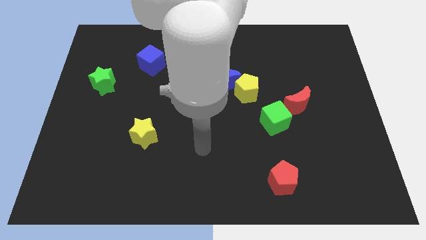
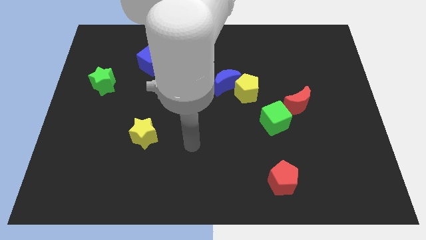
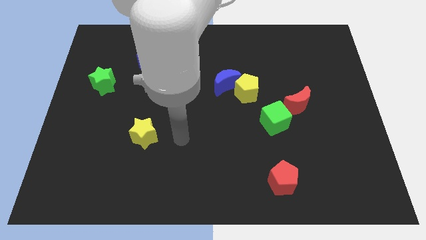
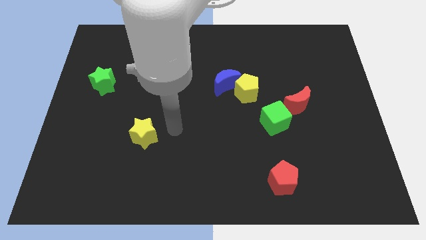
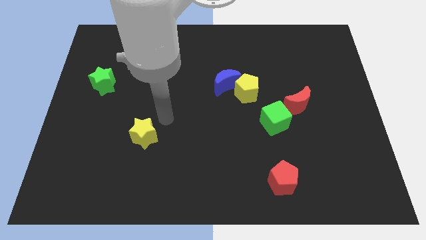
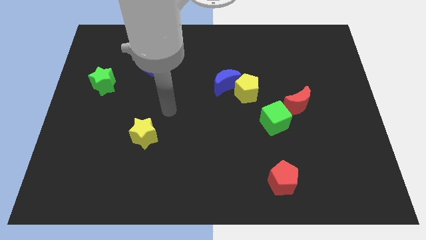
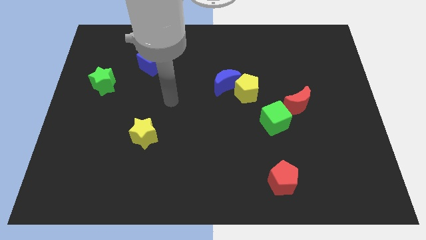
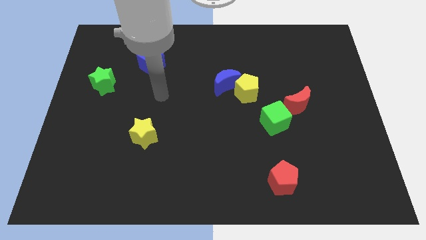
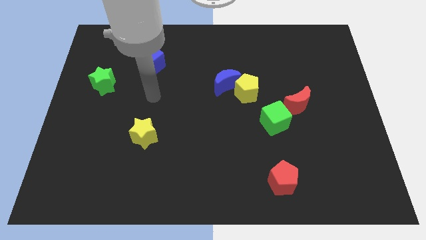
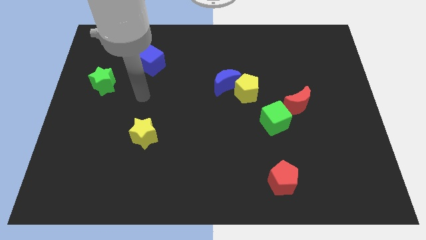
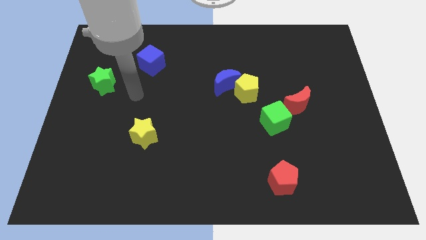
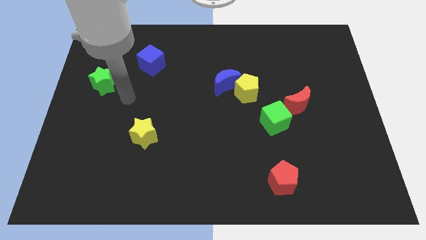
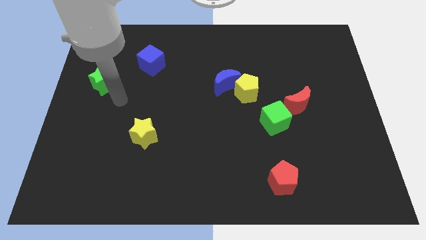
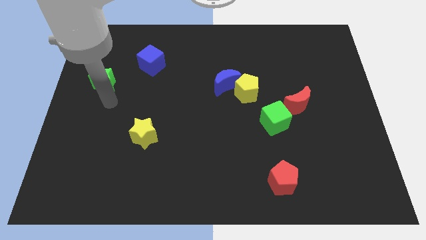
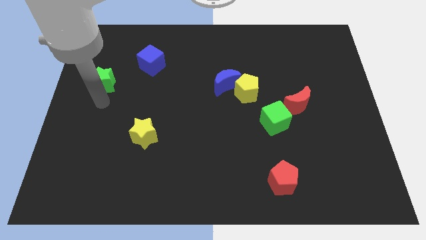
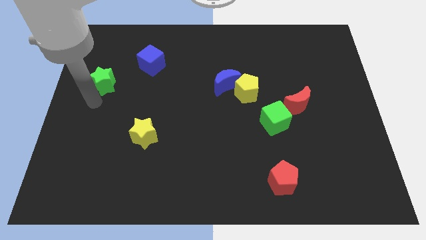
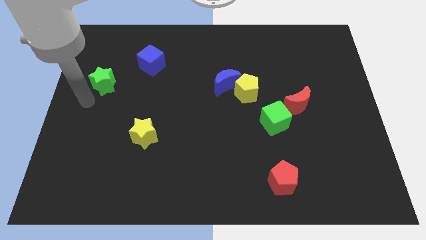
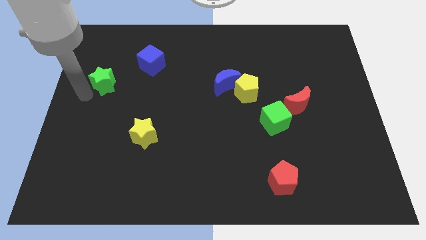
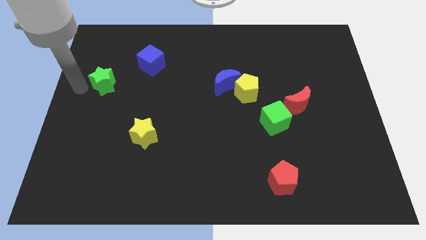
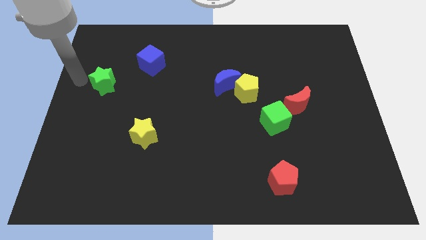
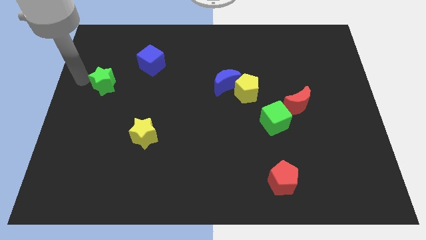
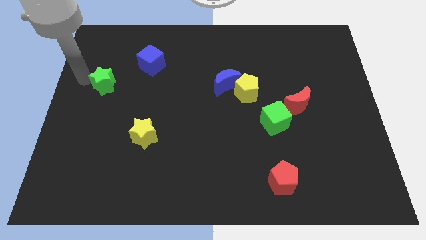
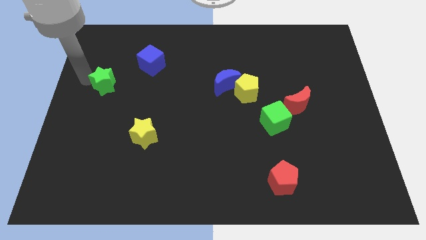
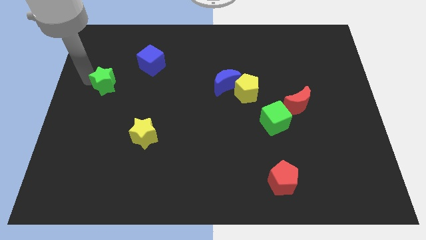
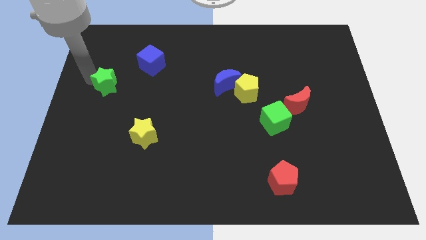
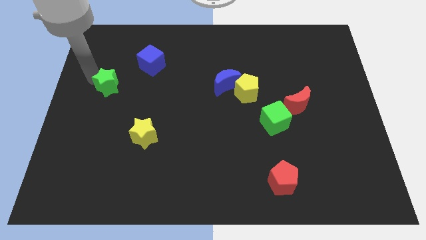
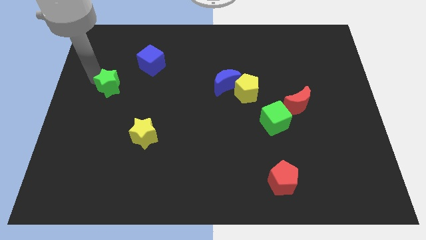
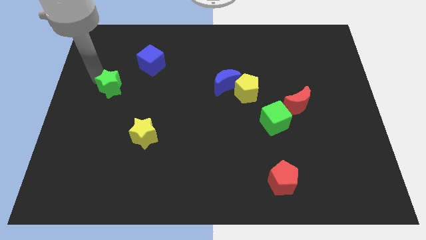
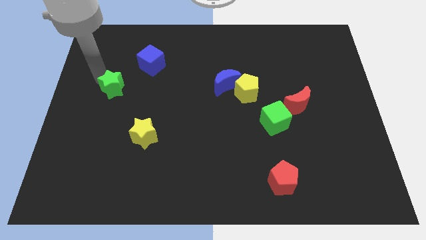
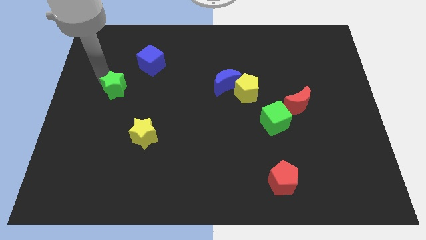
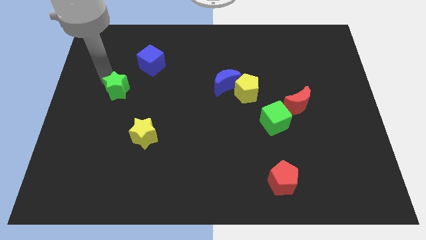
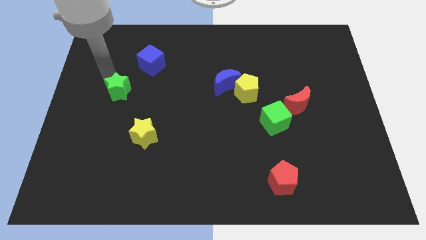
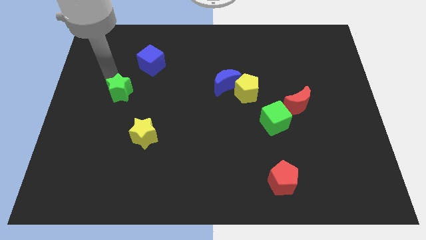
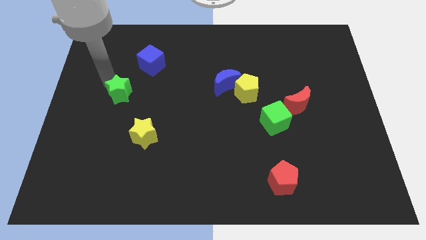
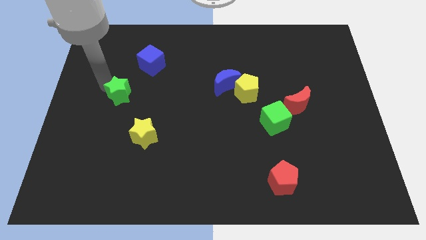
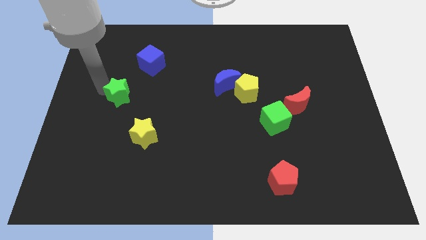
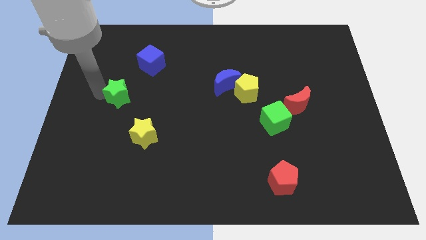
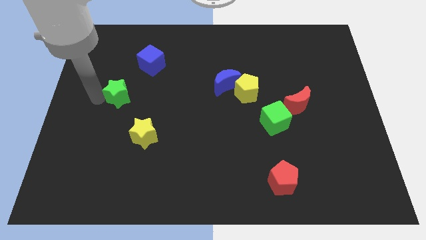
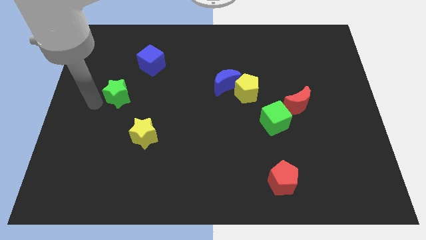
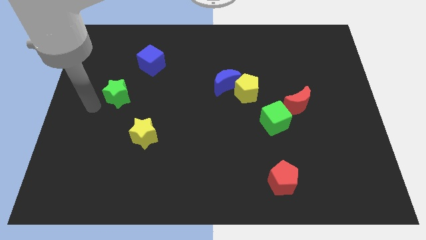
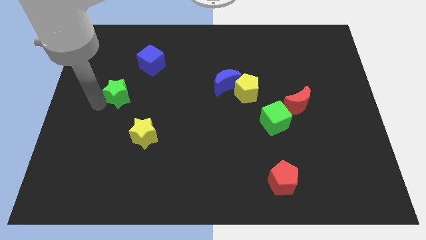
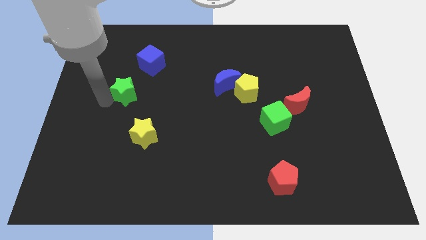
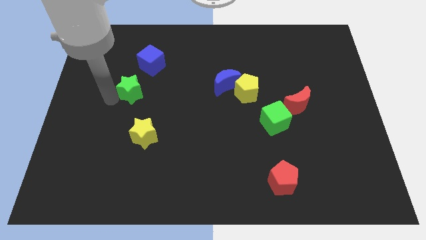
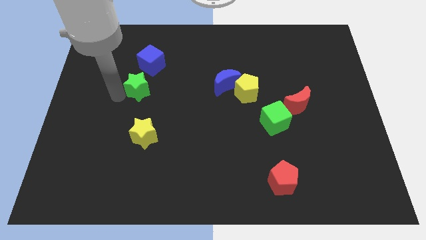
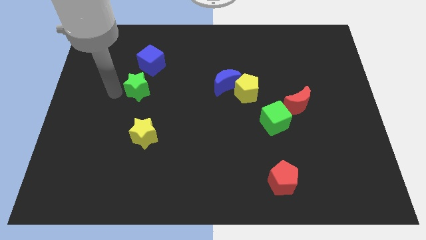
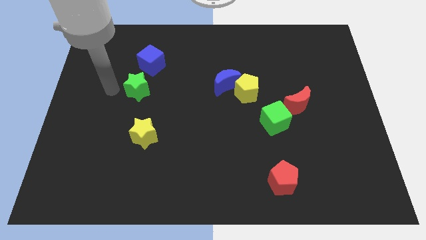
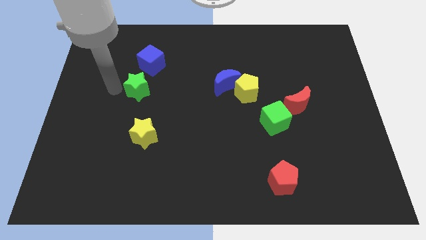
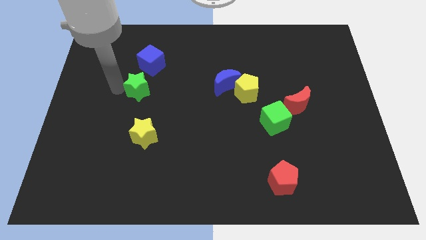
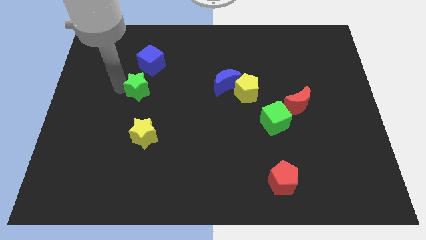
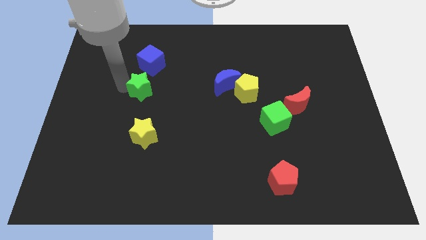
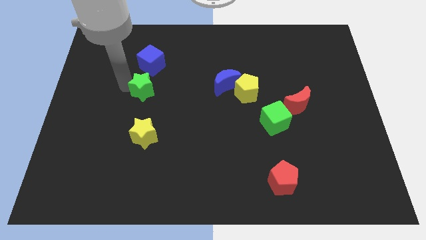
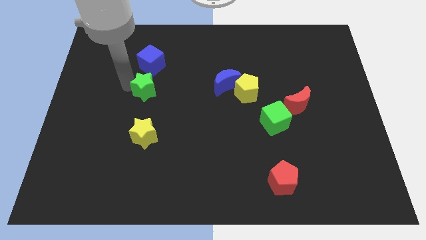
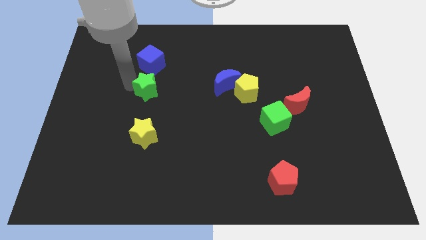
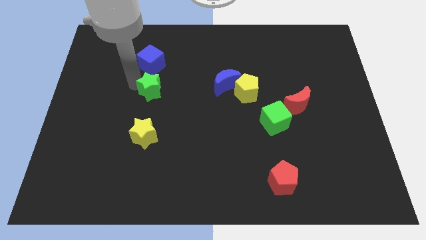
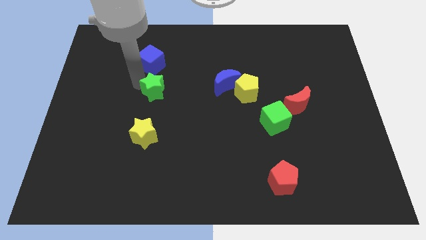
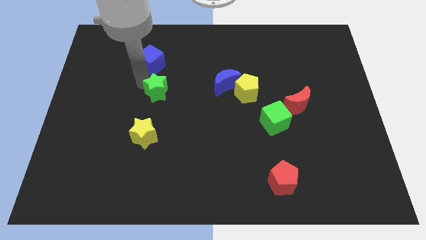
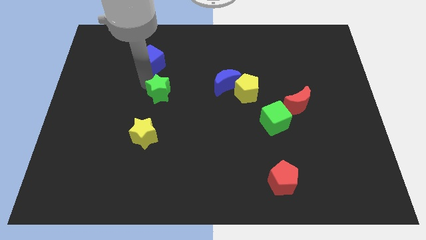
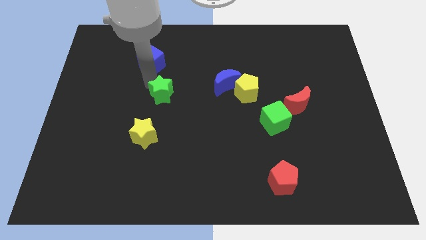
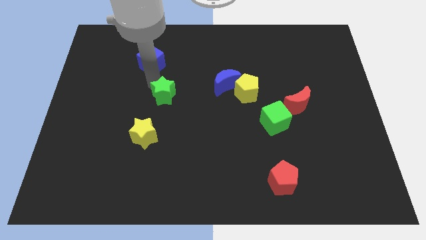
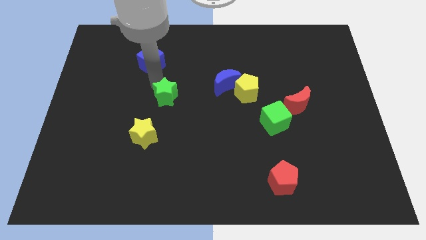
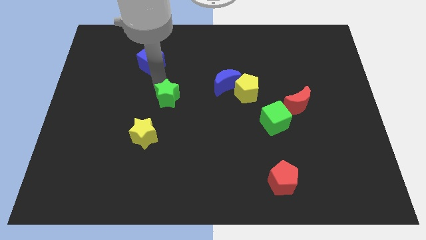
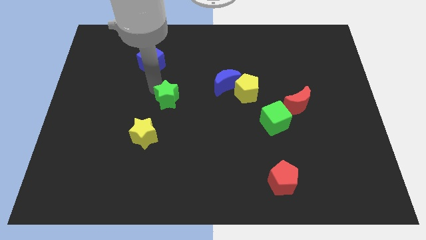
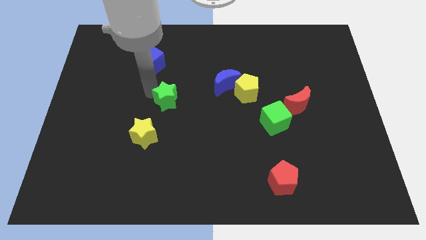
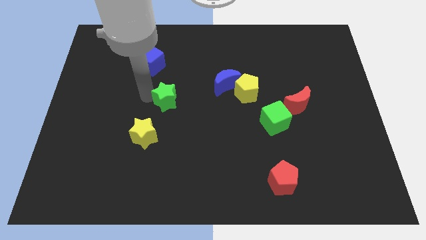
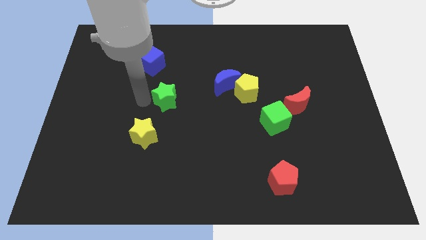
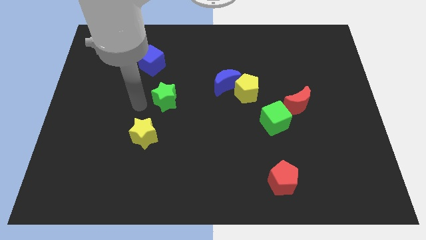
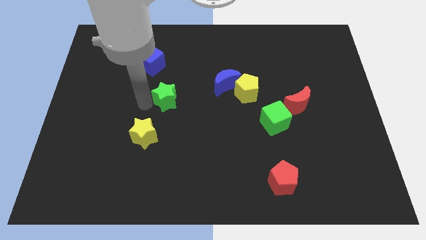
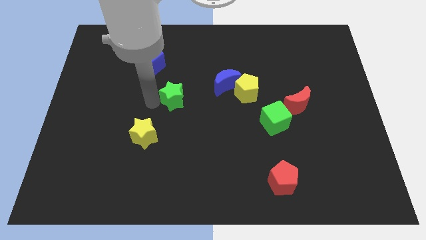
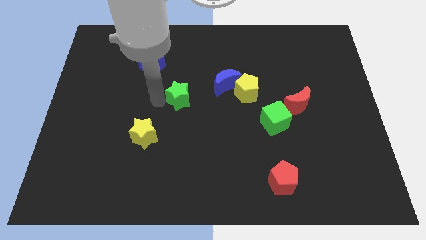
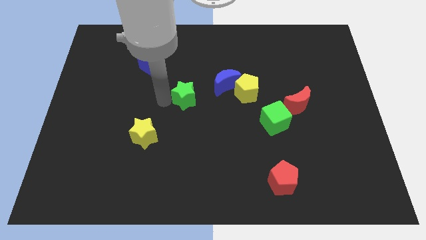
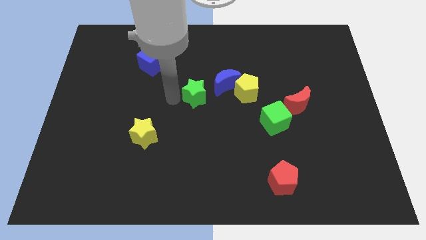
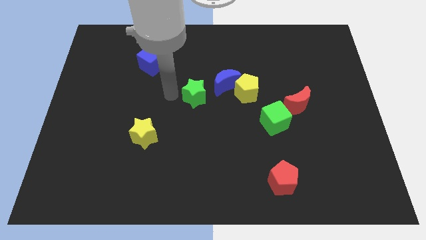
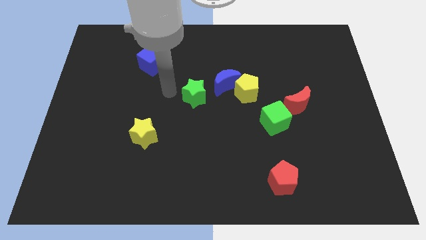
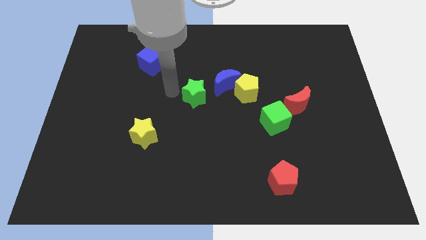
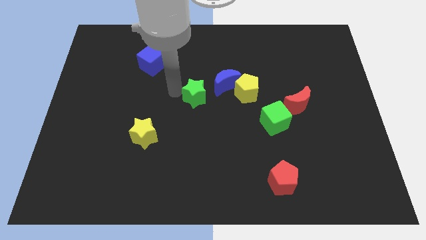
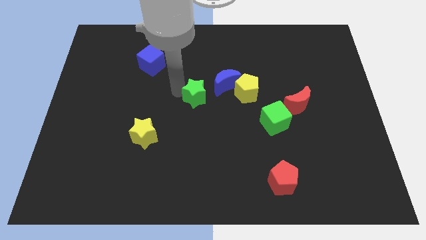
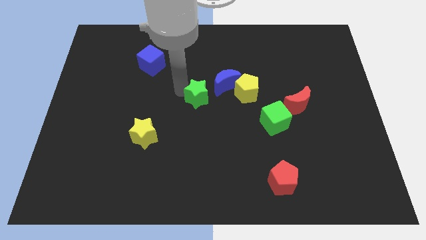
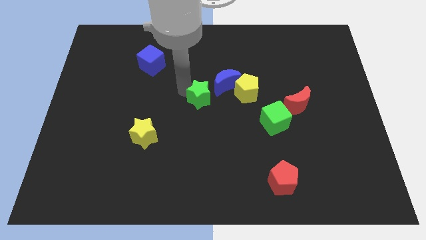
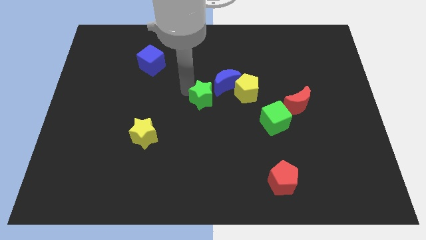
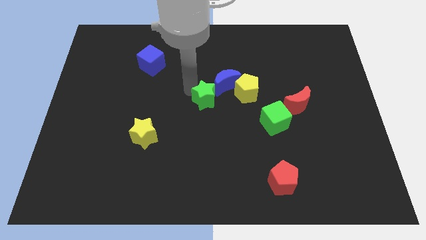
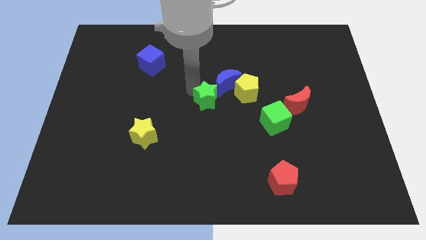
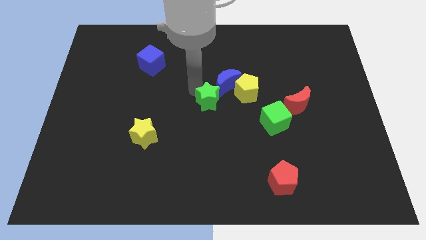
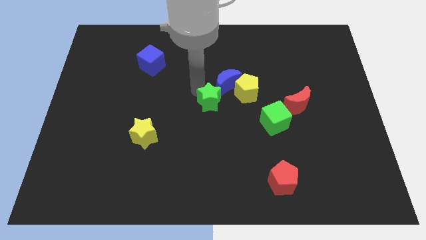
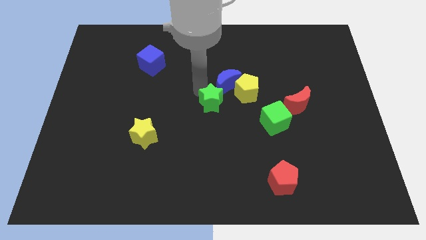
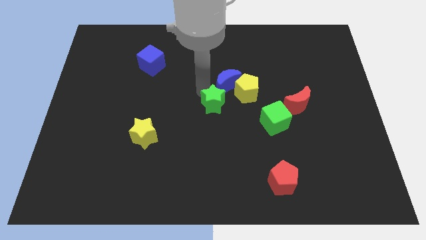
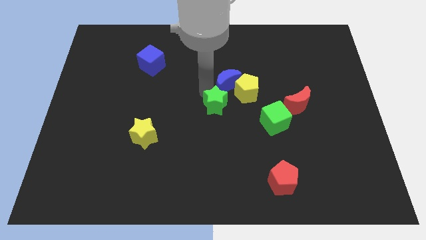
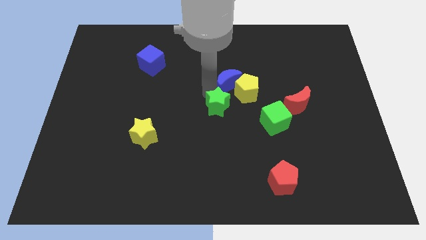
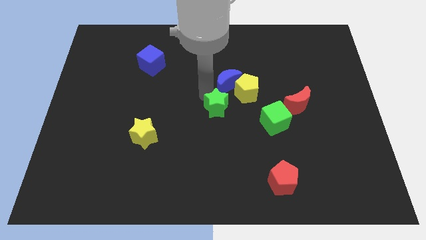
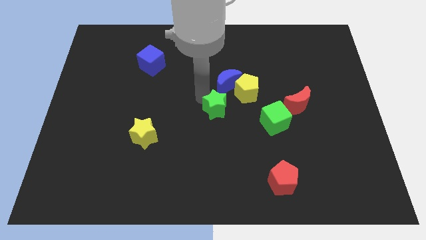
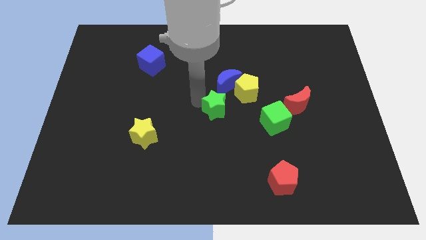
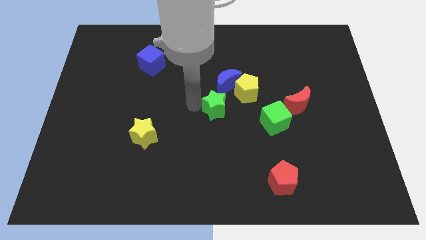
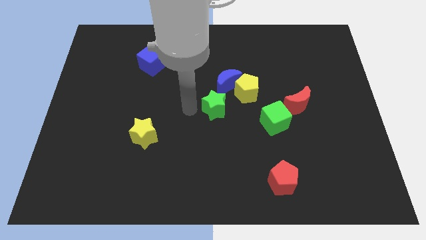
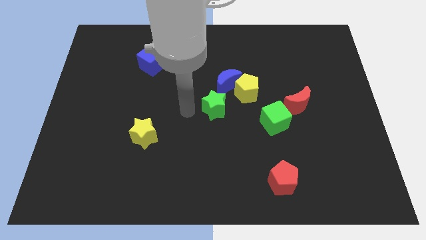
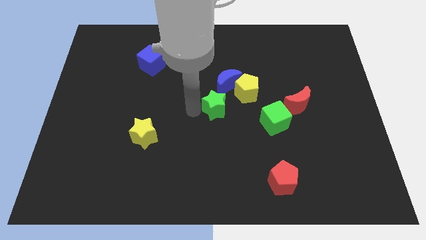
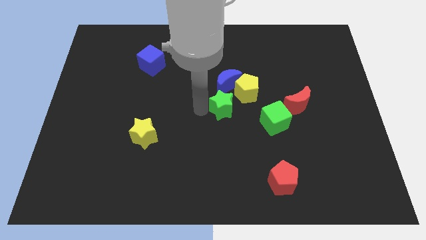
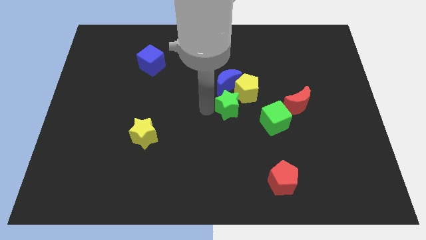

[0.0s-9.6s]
push the green star to the bottom right of the blue moon
